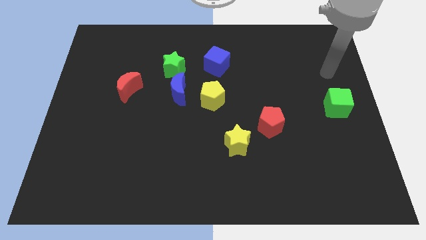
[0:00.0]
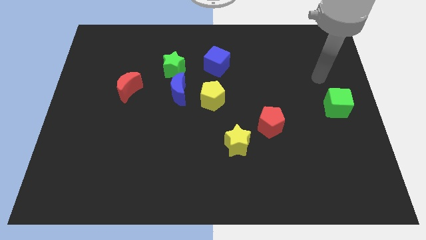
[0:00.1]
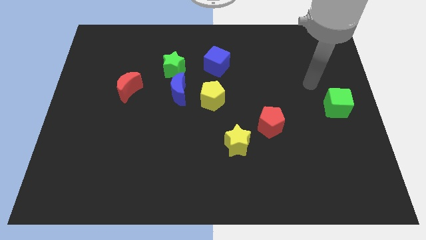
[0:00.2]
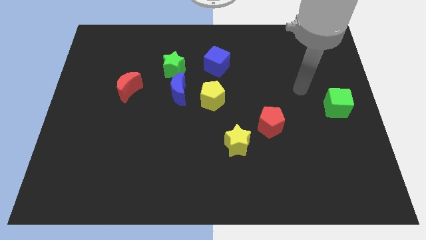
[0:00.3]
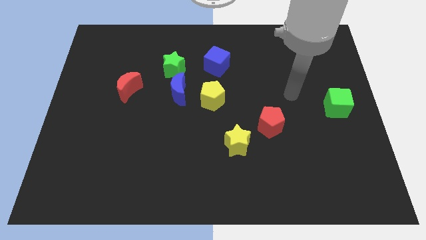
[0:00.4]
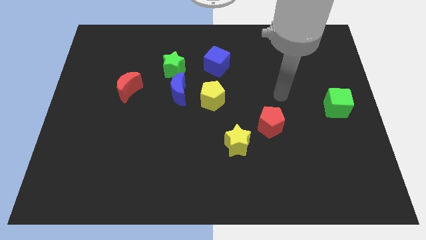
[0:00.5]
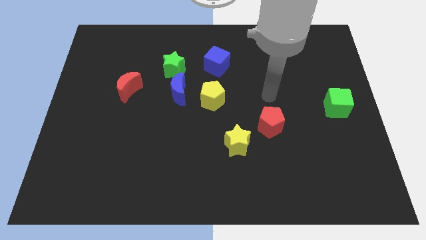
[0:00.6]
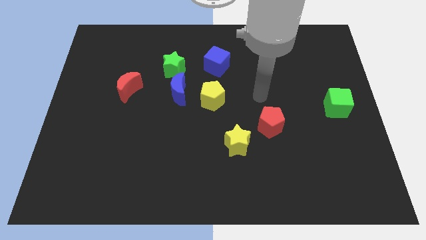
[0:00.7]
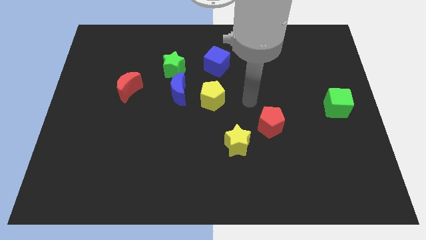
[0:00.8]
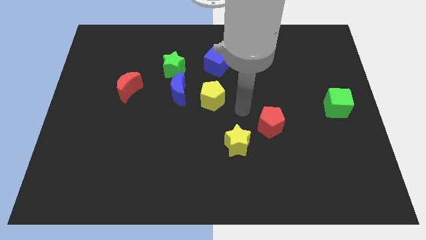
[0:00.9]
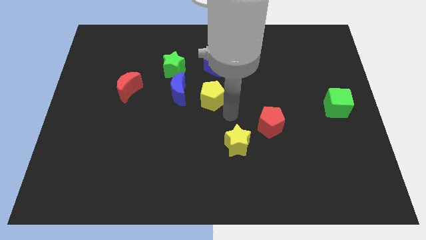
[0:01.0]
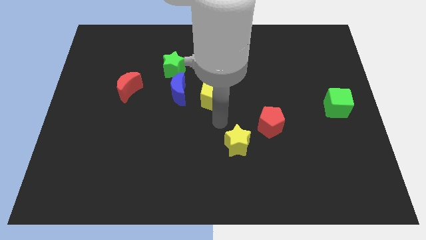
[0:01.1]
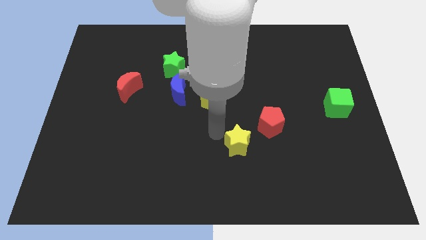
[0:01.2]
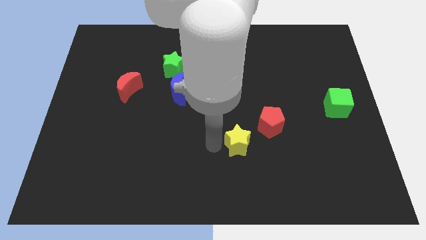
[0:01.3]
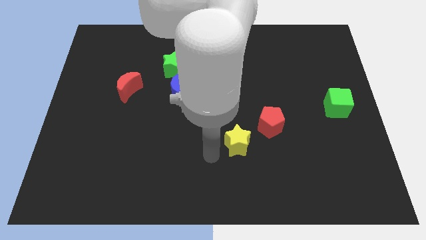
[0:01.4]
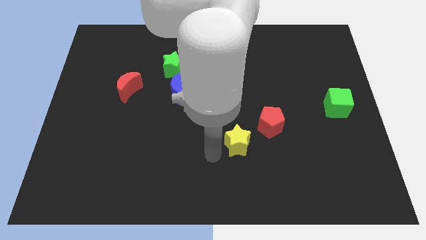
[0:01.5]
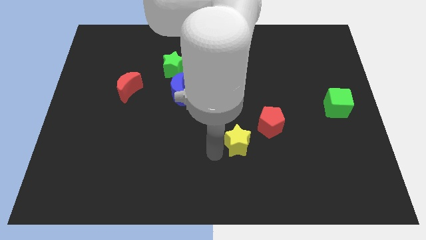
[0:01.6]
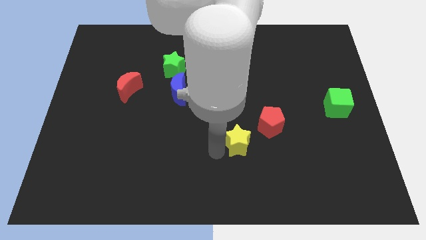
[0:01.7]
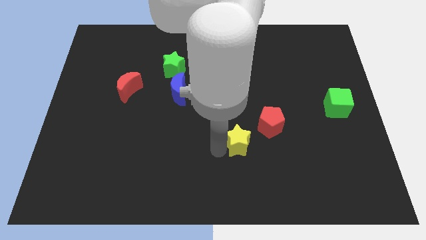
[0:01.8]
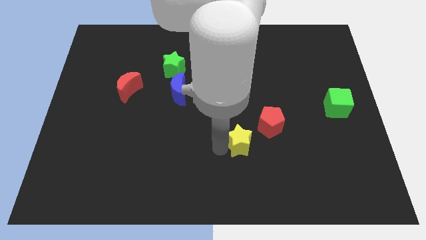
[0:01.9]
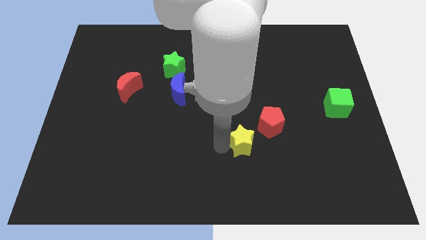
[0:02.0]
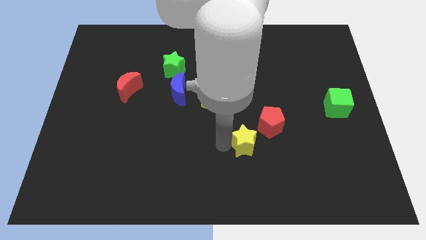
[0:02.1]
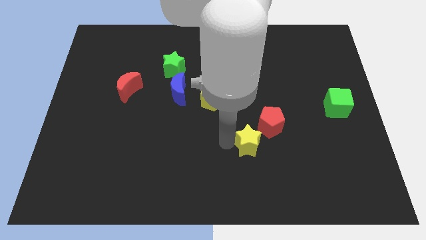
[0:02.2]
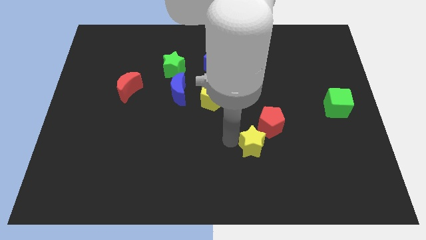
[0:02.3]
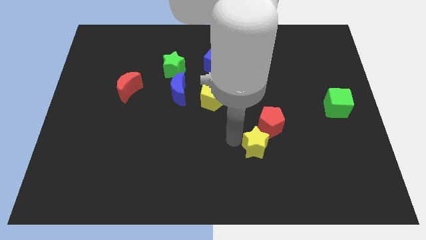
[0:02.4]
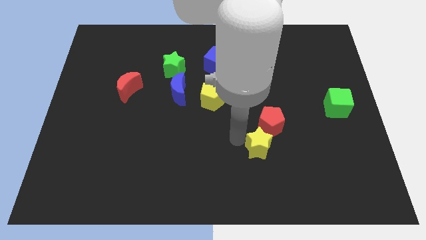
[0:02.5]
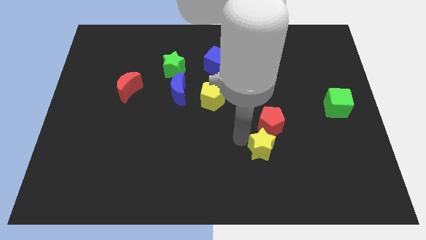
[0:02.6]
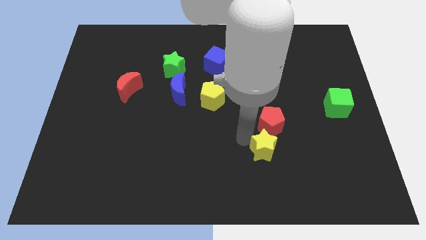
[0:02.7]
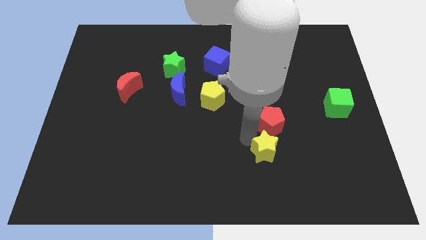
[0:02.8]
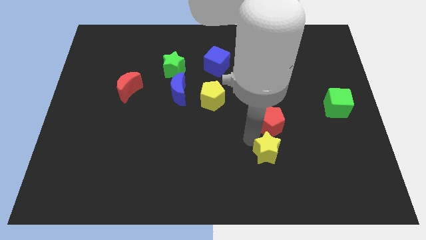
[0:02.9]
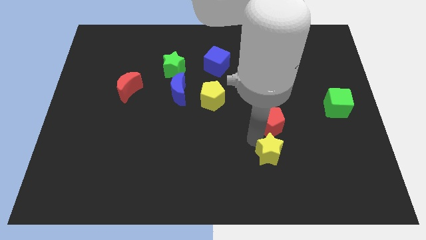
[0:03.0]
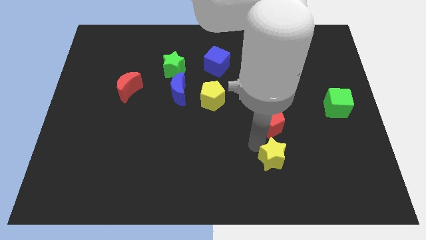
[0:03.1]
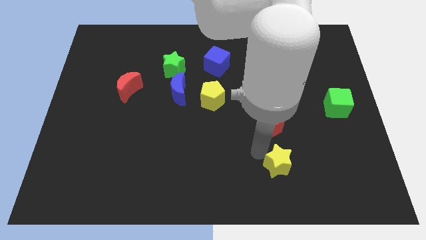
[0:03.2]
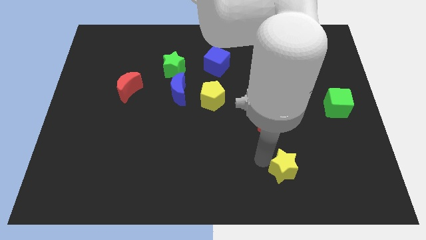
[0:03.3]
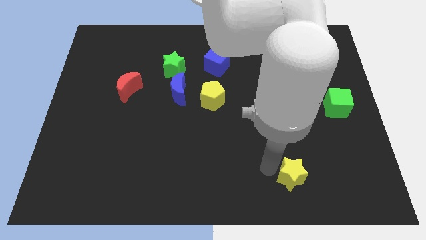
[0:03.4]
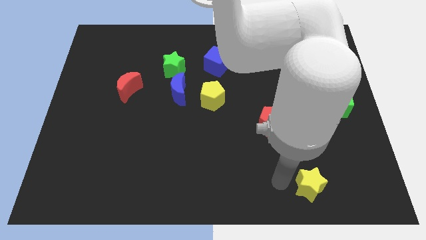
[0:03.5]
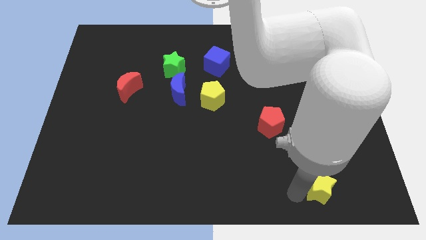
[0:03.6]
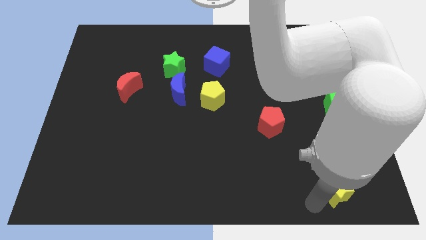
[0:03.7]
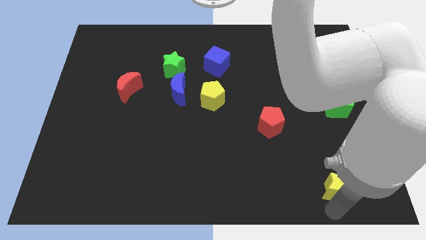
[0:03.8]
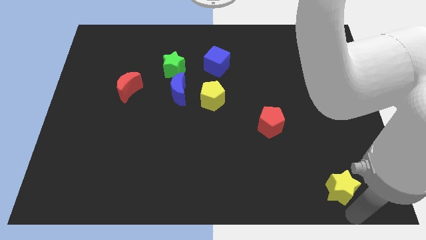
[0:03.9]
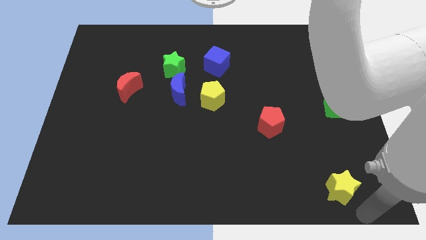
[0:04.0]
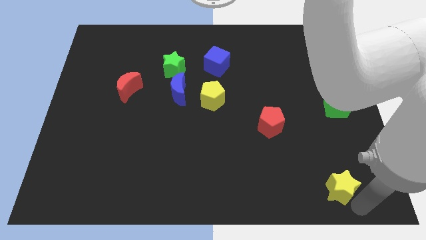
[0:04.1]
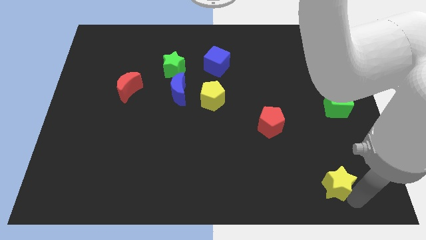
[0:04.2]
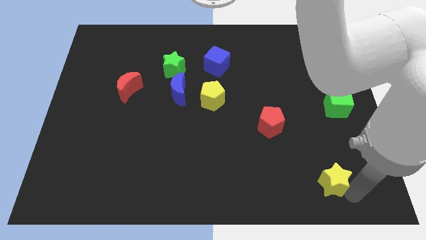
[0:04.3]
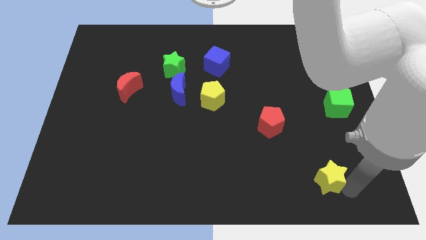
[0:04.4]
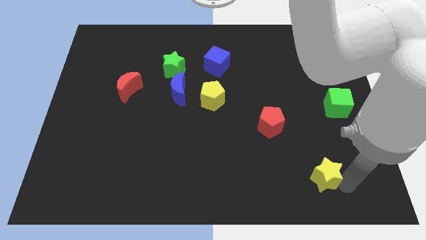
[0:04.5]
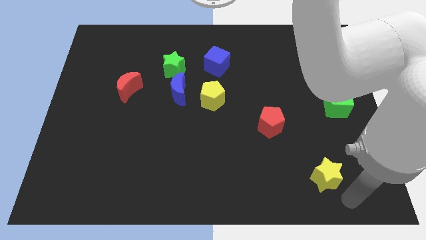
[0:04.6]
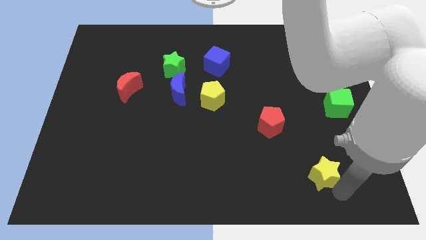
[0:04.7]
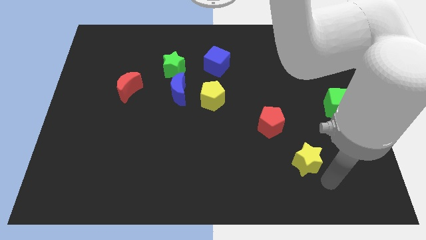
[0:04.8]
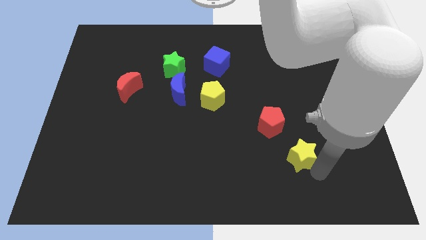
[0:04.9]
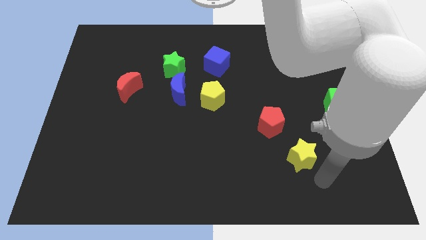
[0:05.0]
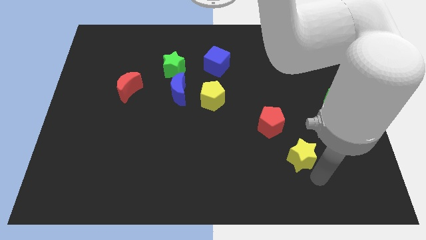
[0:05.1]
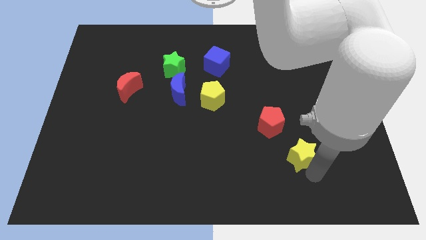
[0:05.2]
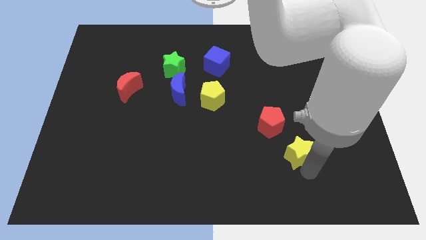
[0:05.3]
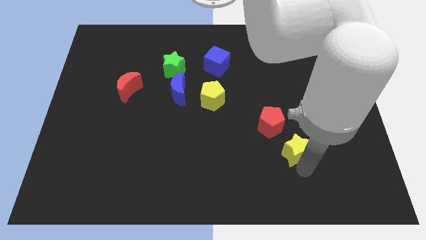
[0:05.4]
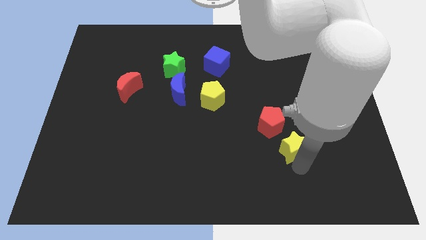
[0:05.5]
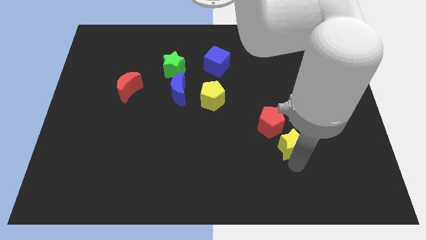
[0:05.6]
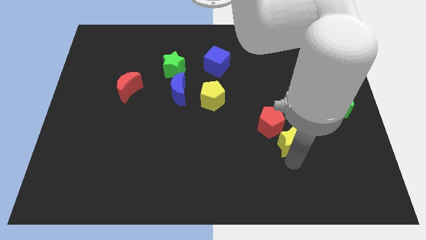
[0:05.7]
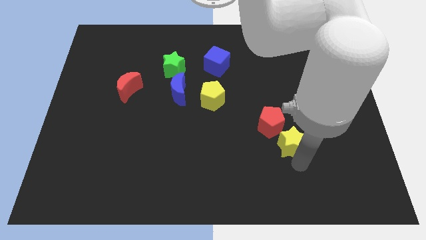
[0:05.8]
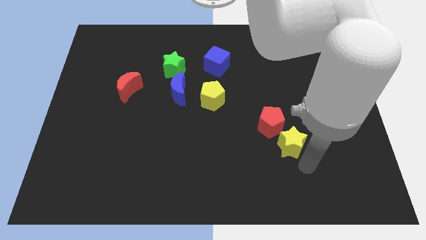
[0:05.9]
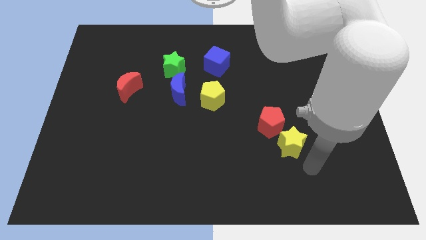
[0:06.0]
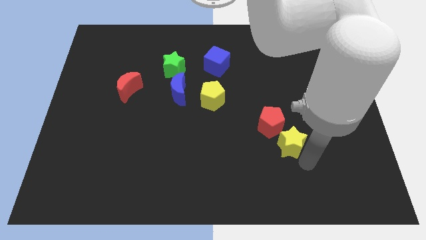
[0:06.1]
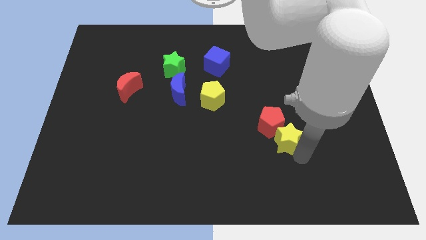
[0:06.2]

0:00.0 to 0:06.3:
move the yellow star towards the red pentagon

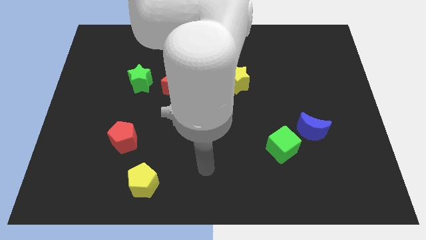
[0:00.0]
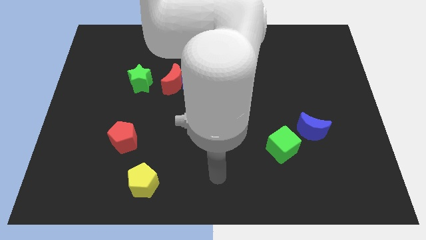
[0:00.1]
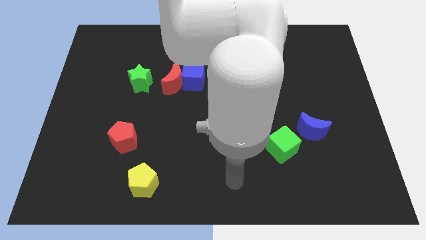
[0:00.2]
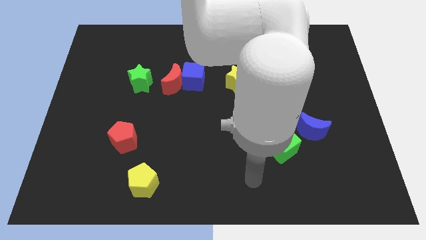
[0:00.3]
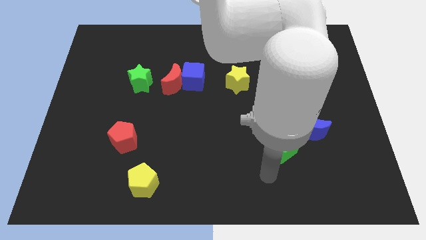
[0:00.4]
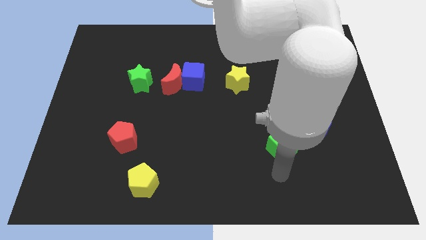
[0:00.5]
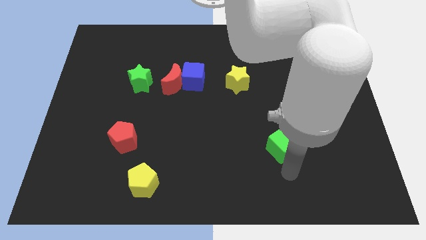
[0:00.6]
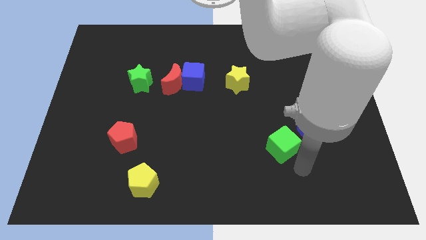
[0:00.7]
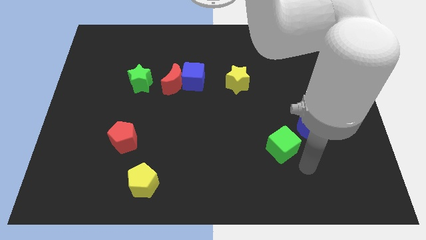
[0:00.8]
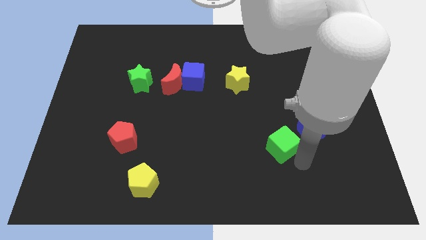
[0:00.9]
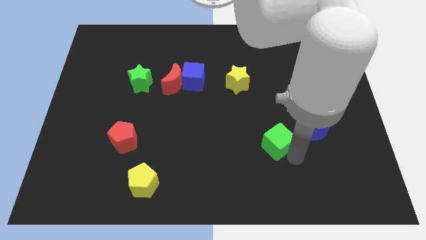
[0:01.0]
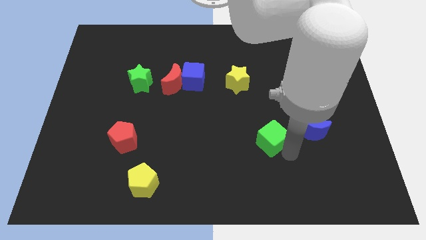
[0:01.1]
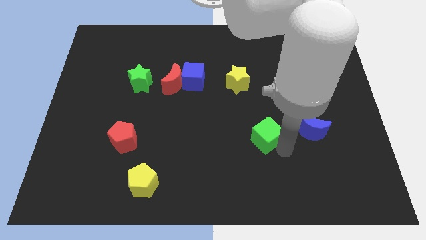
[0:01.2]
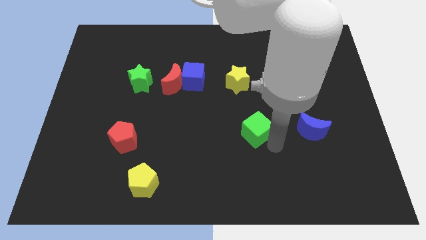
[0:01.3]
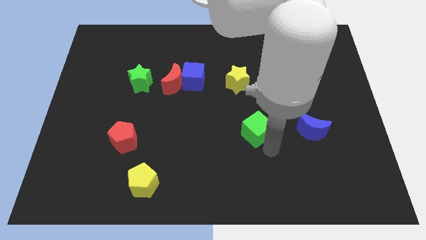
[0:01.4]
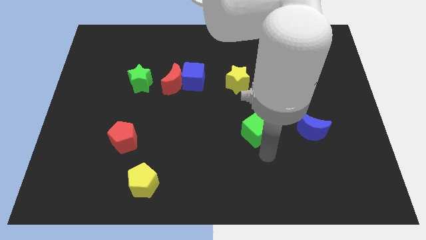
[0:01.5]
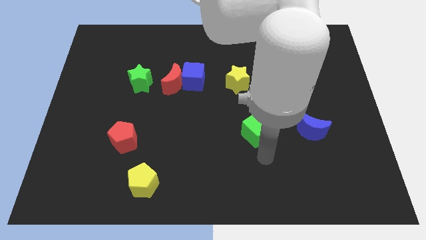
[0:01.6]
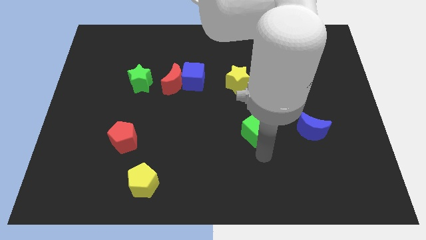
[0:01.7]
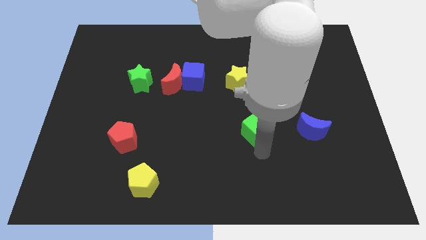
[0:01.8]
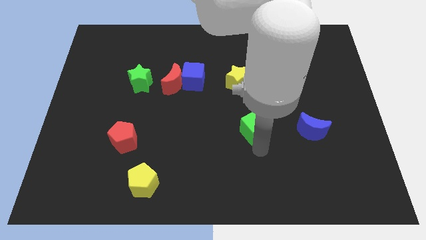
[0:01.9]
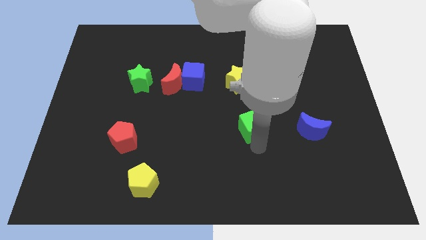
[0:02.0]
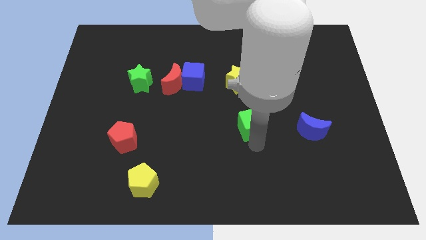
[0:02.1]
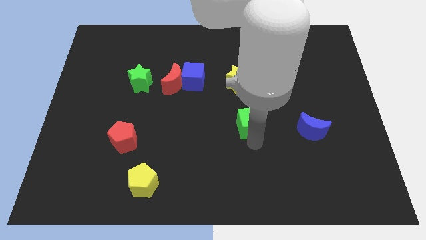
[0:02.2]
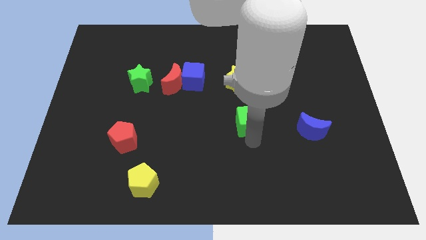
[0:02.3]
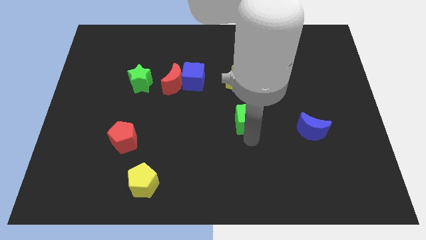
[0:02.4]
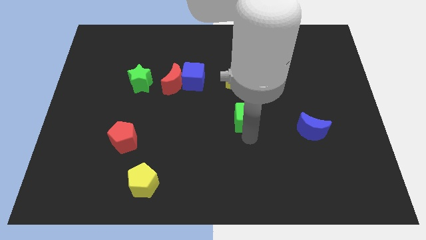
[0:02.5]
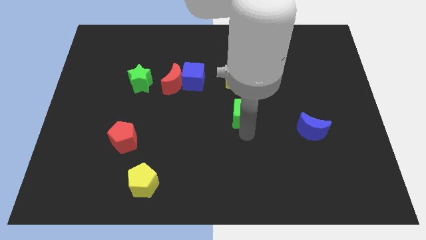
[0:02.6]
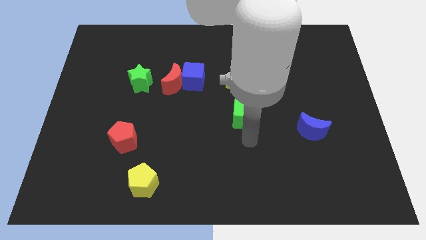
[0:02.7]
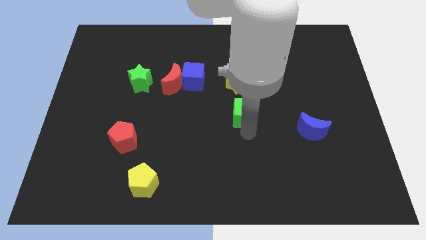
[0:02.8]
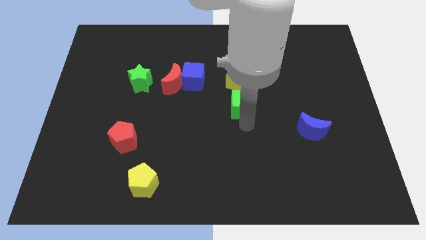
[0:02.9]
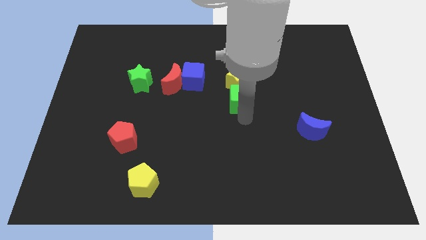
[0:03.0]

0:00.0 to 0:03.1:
slide the green cube to the yellow star
